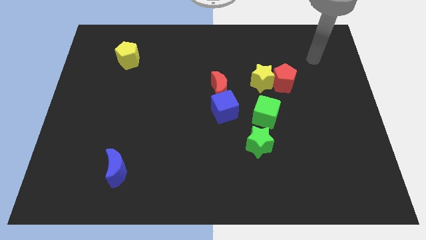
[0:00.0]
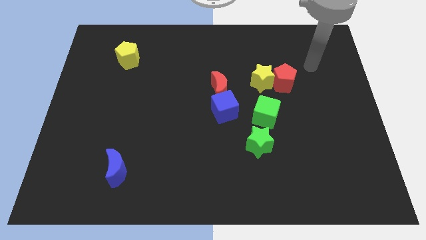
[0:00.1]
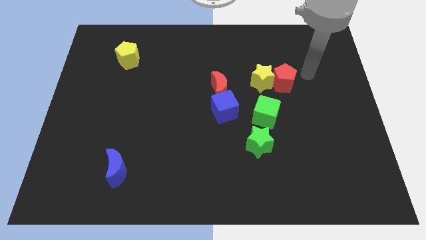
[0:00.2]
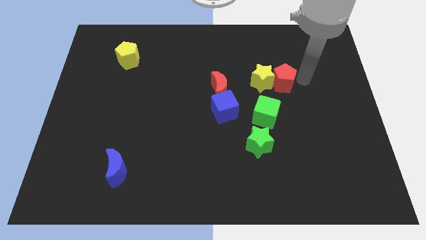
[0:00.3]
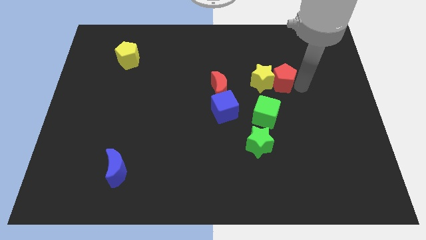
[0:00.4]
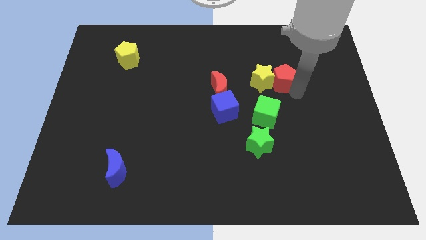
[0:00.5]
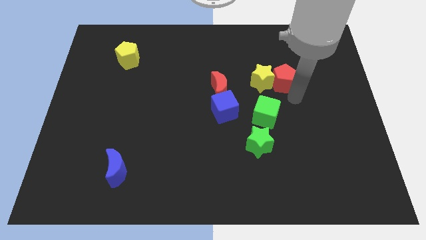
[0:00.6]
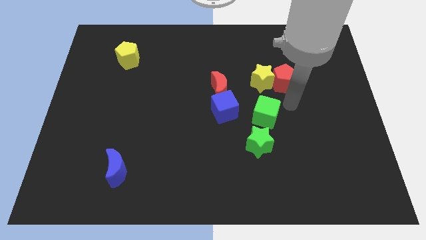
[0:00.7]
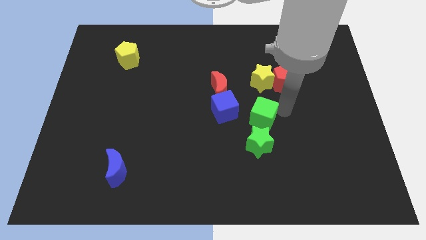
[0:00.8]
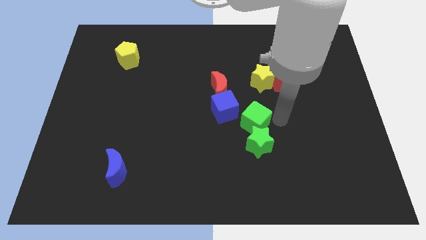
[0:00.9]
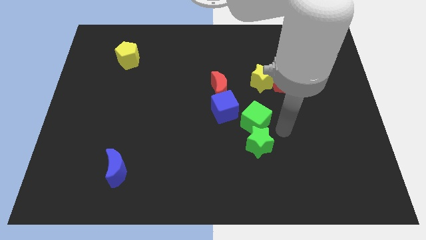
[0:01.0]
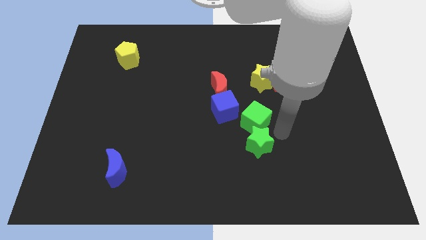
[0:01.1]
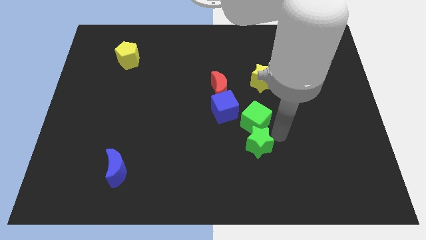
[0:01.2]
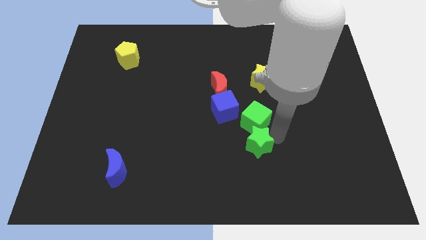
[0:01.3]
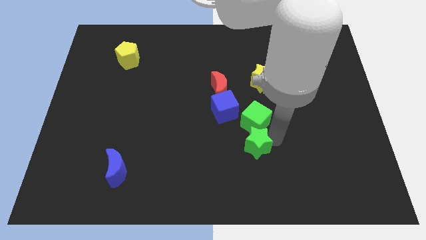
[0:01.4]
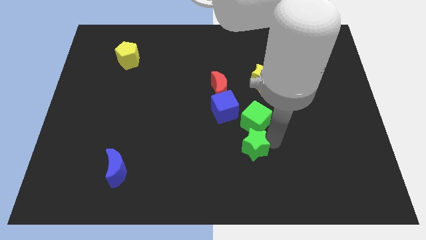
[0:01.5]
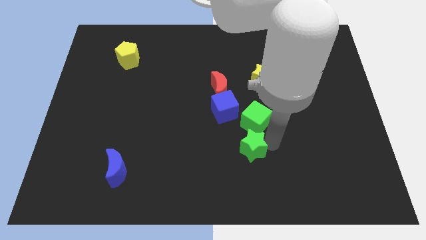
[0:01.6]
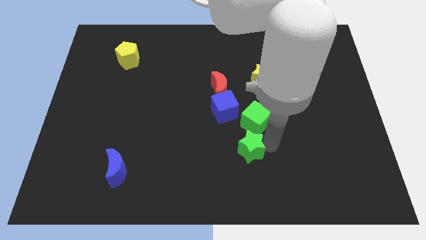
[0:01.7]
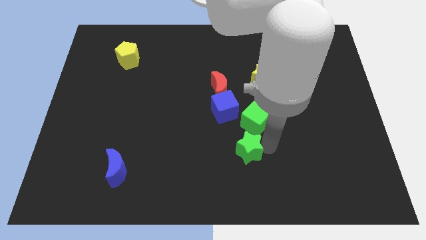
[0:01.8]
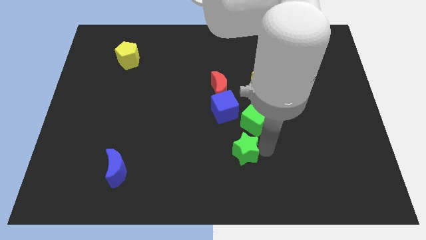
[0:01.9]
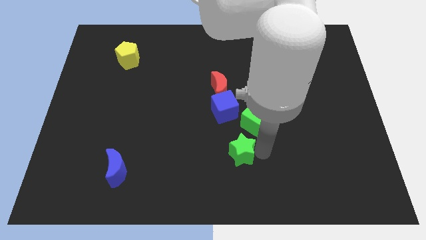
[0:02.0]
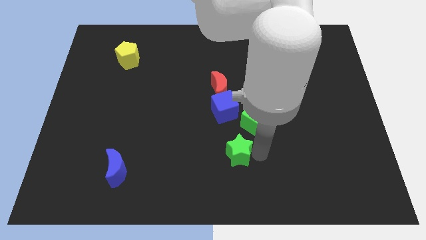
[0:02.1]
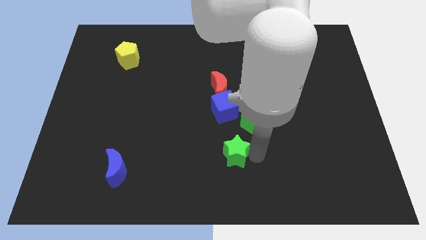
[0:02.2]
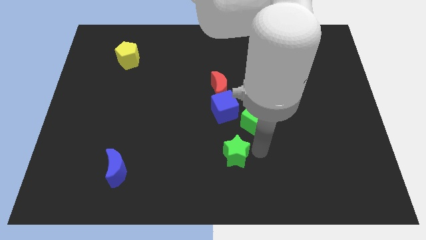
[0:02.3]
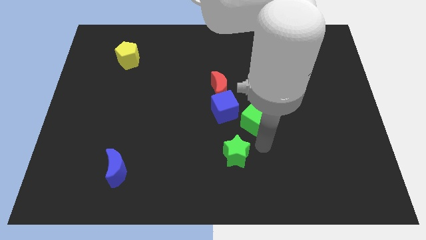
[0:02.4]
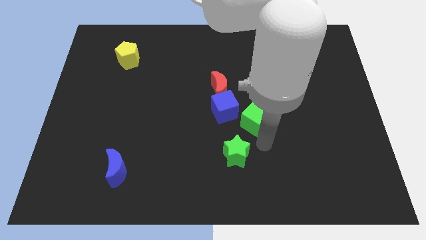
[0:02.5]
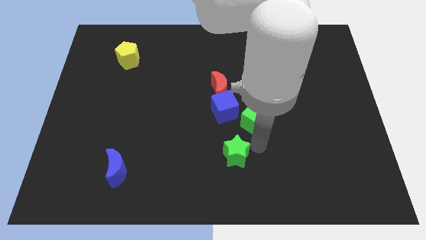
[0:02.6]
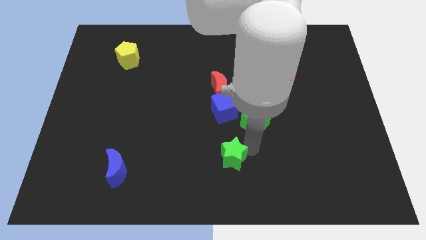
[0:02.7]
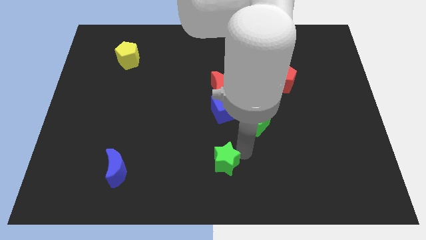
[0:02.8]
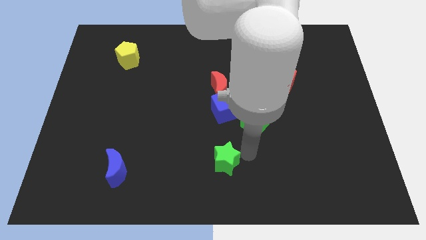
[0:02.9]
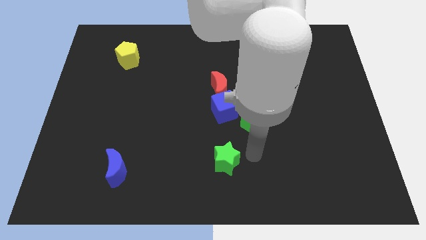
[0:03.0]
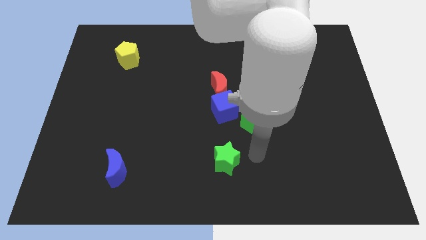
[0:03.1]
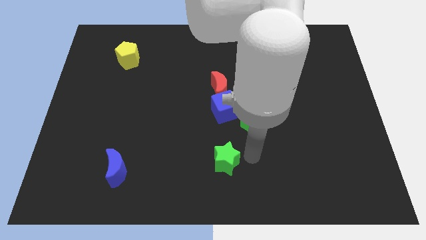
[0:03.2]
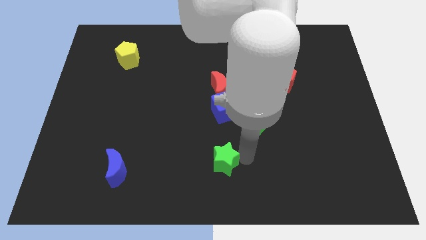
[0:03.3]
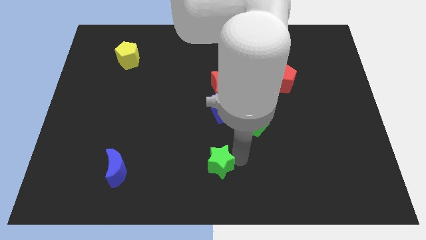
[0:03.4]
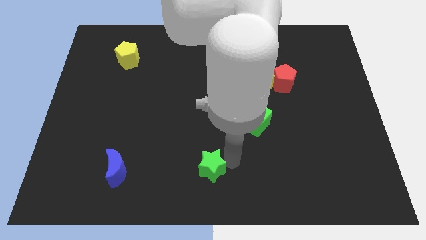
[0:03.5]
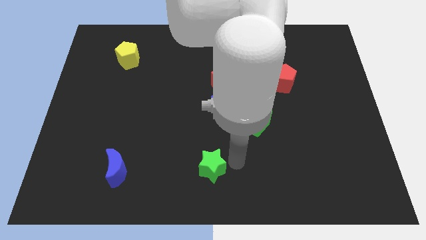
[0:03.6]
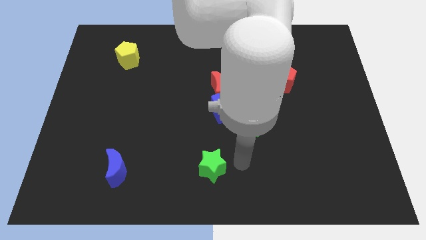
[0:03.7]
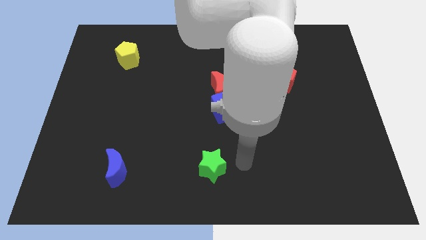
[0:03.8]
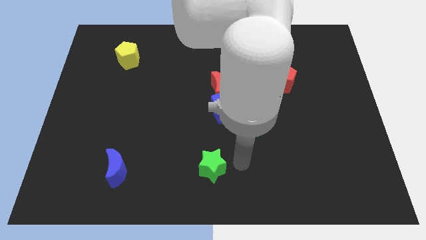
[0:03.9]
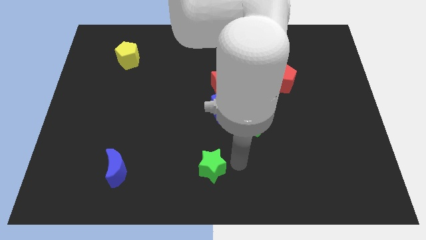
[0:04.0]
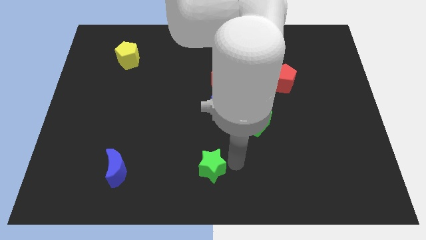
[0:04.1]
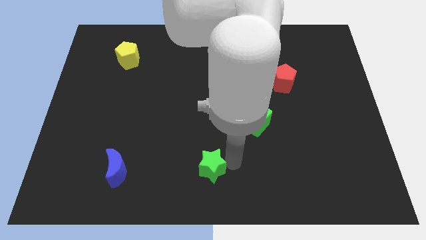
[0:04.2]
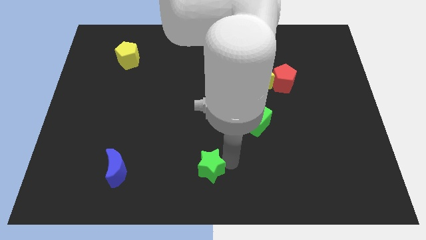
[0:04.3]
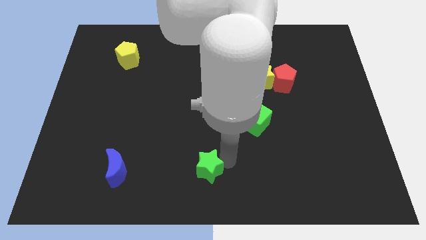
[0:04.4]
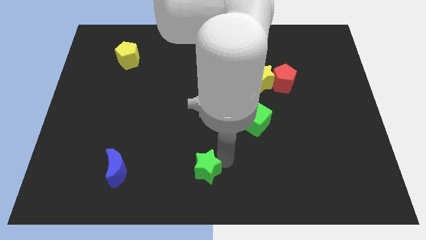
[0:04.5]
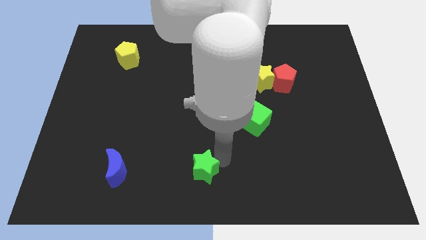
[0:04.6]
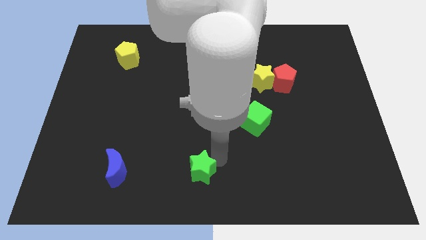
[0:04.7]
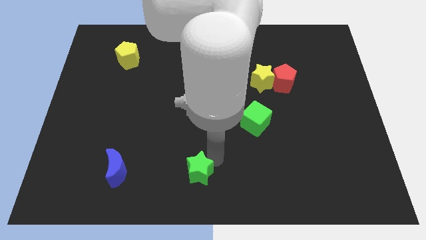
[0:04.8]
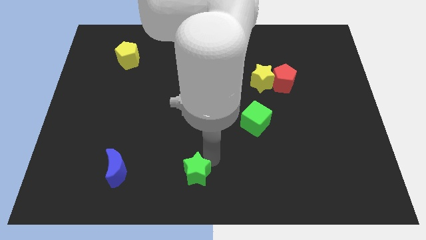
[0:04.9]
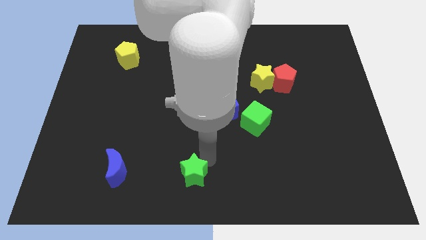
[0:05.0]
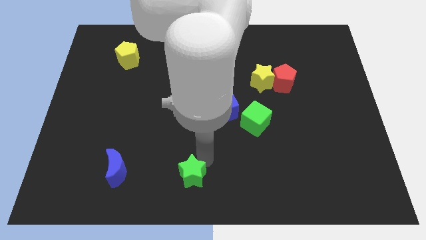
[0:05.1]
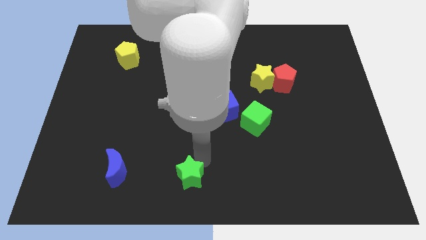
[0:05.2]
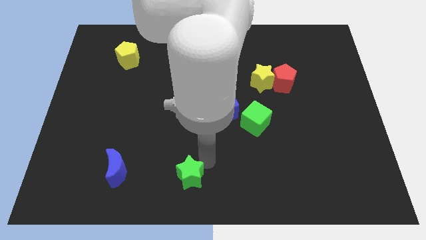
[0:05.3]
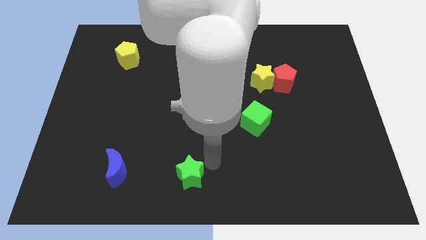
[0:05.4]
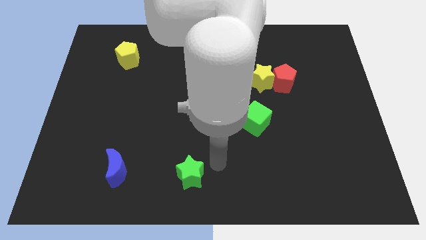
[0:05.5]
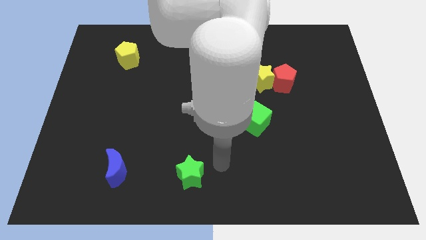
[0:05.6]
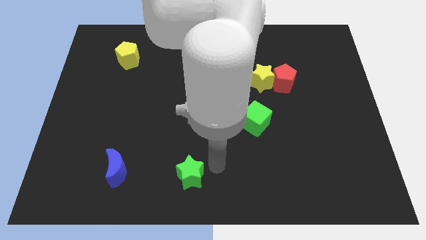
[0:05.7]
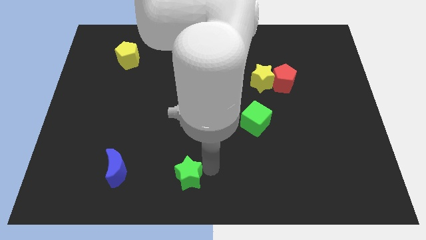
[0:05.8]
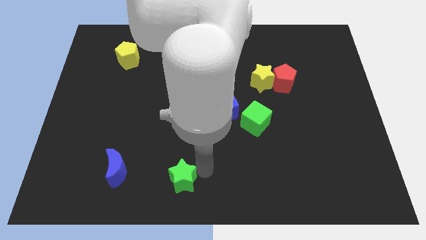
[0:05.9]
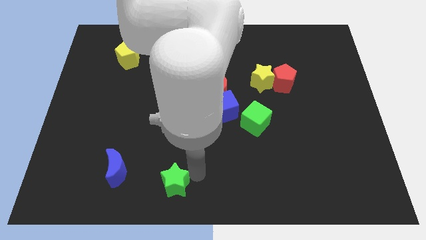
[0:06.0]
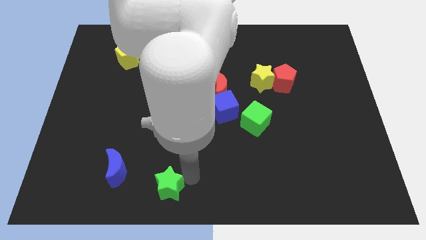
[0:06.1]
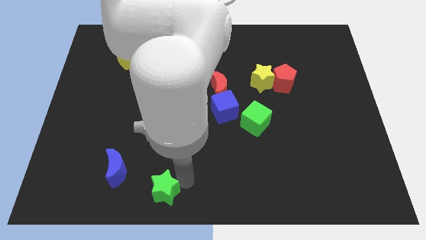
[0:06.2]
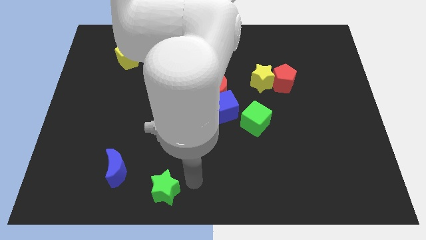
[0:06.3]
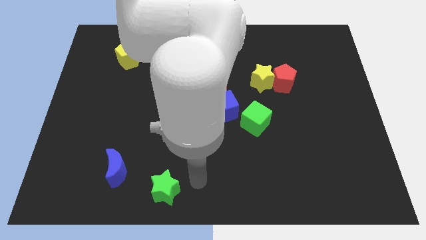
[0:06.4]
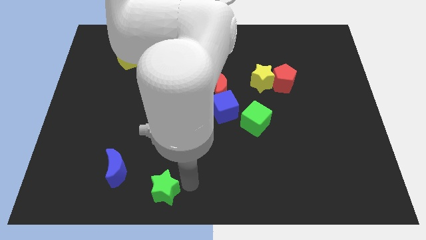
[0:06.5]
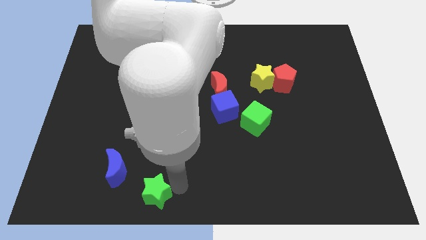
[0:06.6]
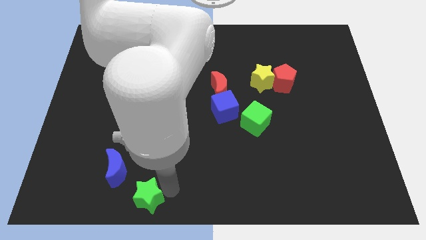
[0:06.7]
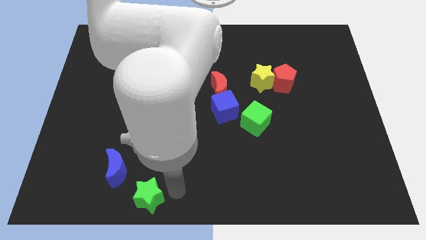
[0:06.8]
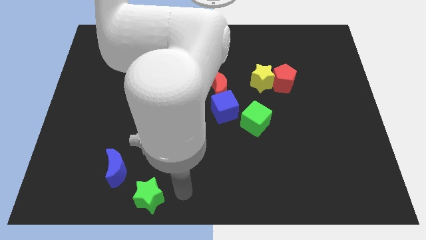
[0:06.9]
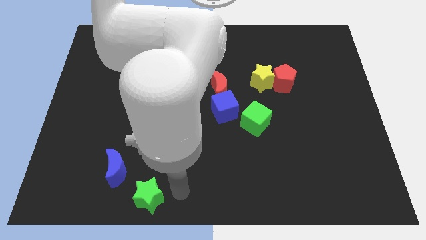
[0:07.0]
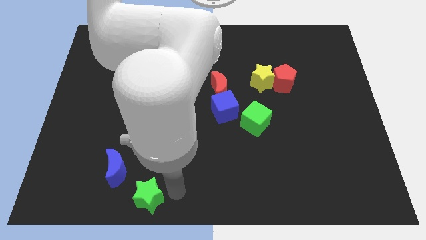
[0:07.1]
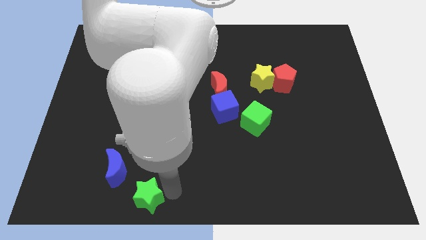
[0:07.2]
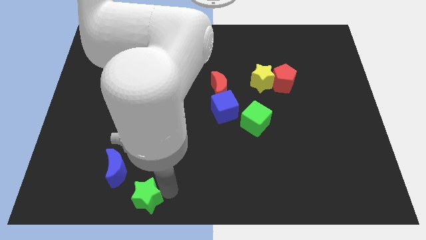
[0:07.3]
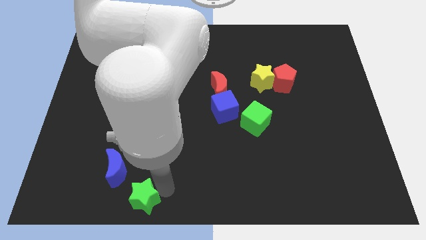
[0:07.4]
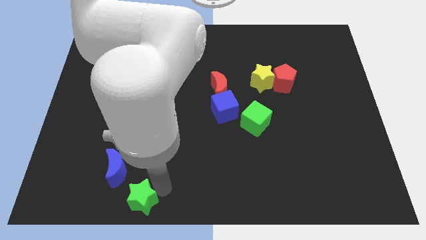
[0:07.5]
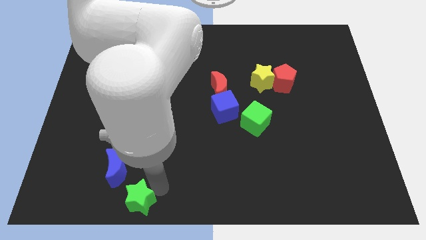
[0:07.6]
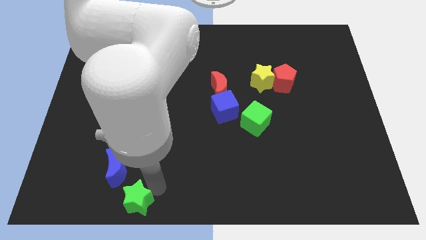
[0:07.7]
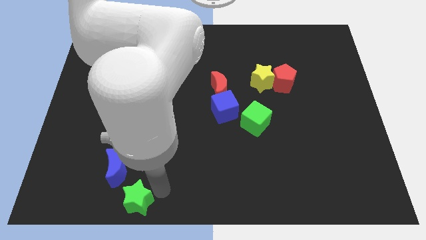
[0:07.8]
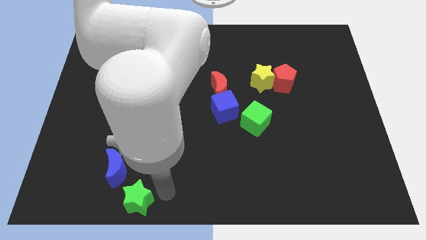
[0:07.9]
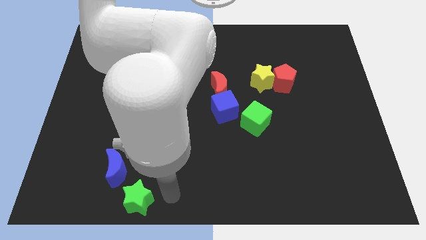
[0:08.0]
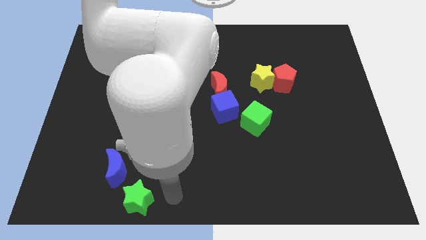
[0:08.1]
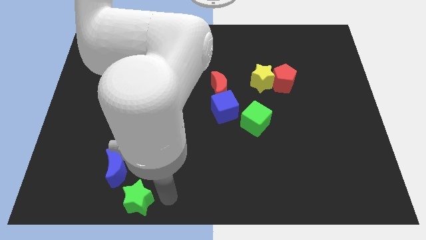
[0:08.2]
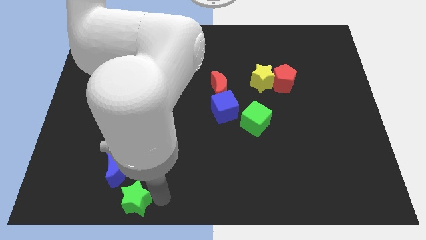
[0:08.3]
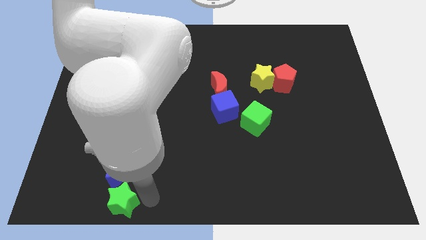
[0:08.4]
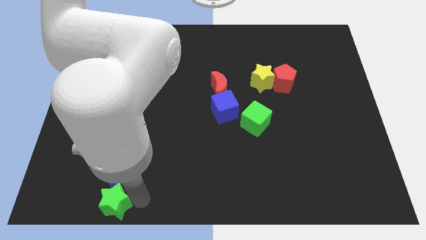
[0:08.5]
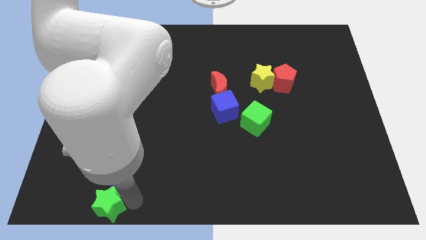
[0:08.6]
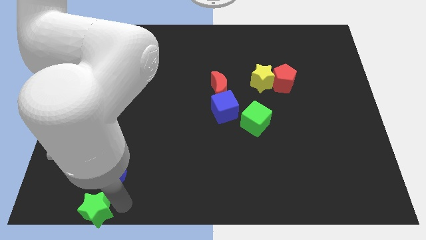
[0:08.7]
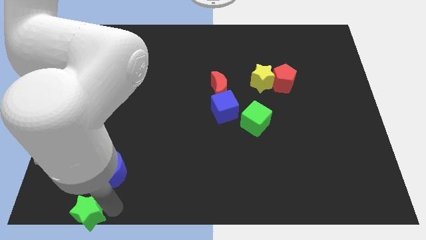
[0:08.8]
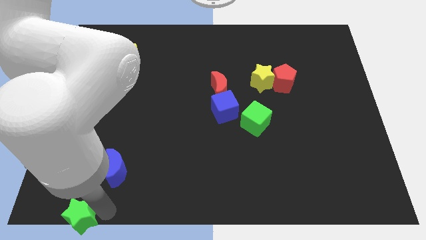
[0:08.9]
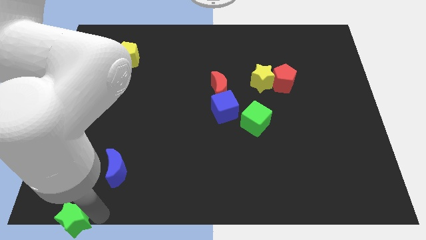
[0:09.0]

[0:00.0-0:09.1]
slide the green star to the lower left corner
